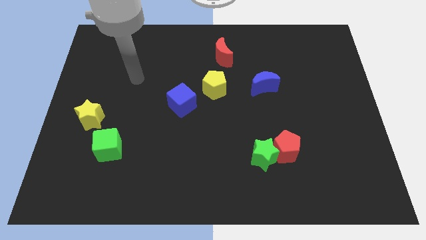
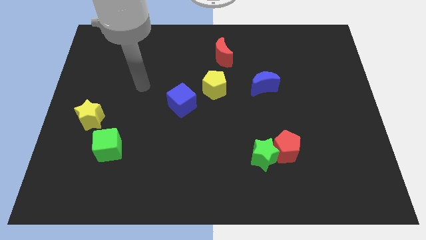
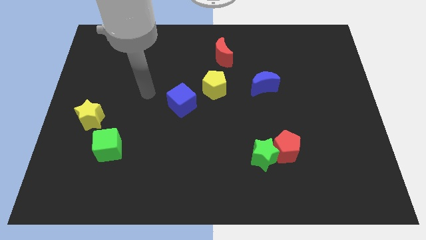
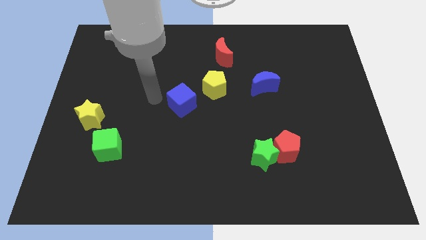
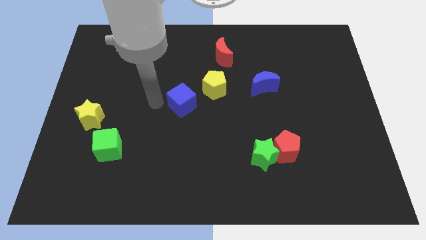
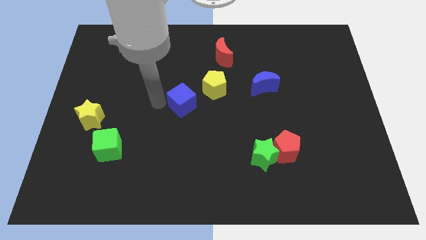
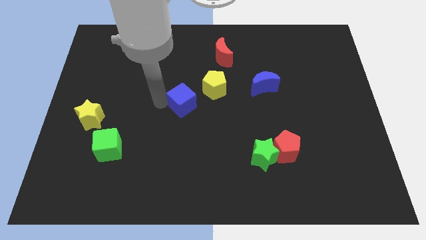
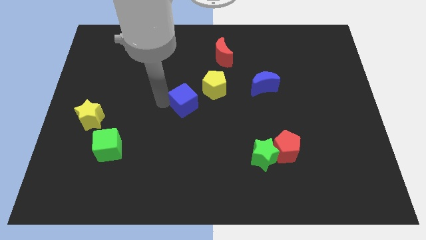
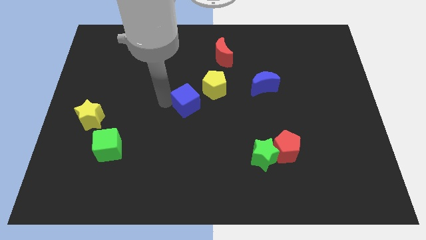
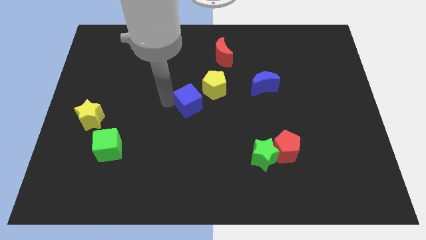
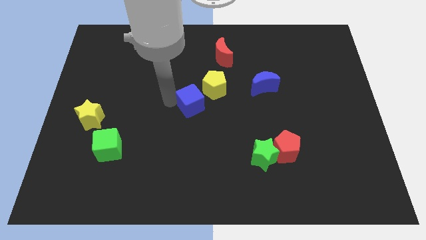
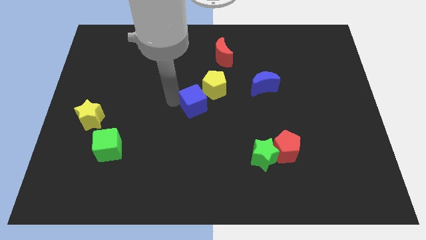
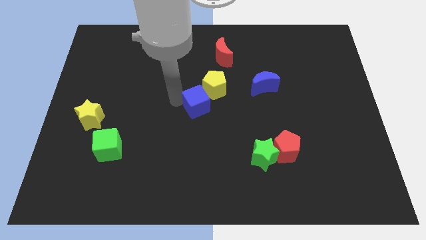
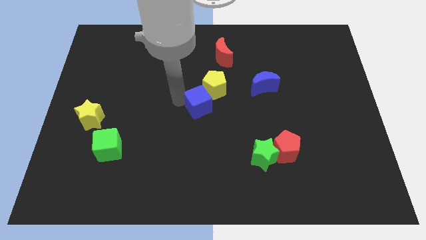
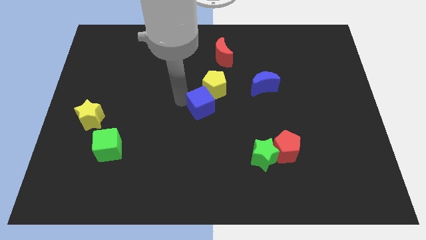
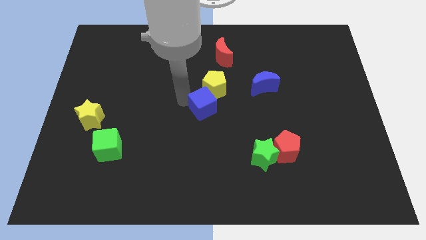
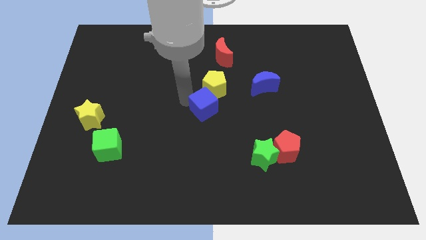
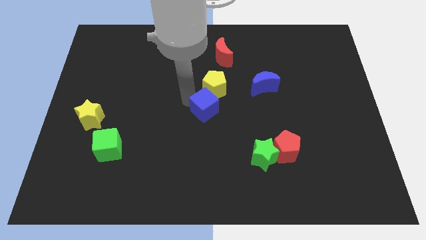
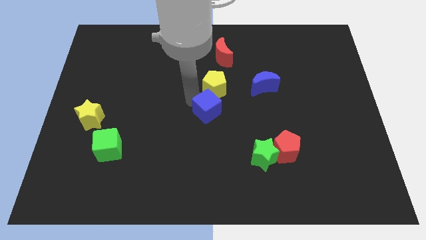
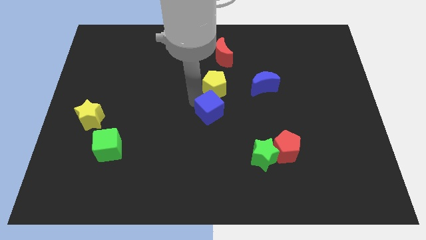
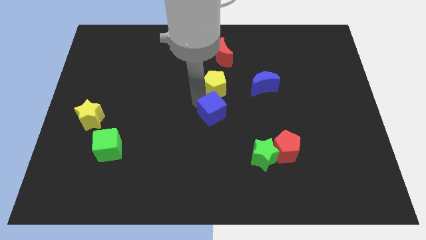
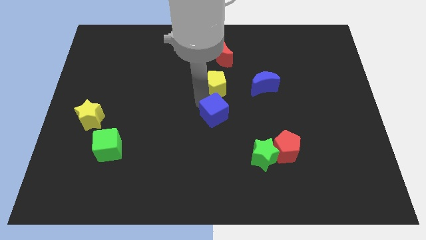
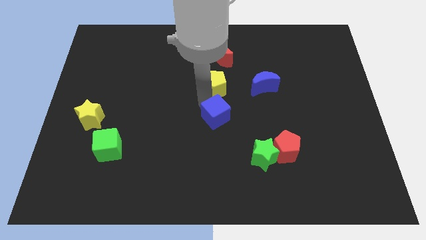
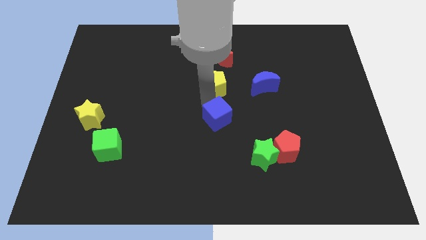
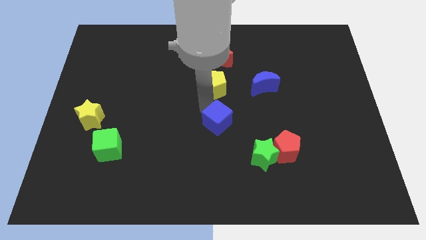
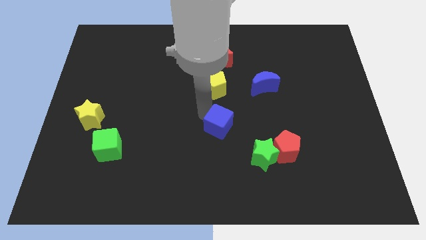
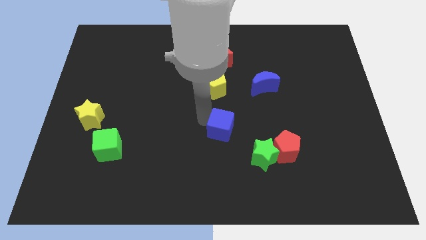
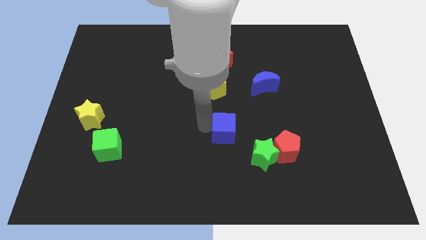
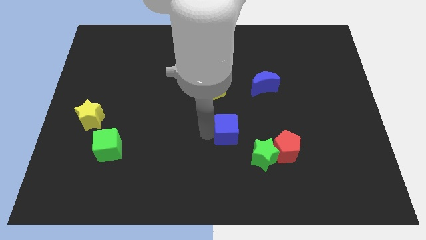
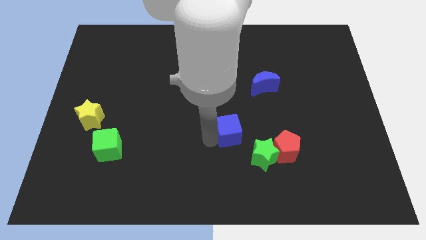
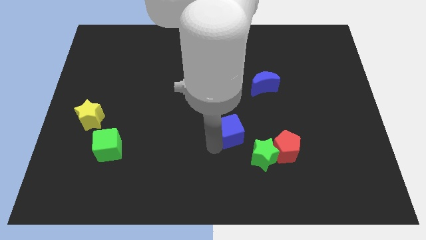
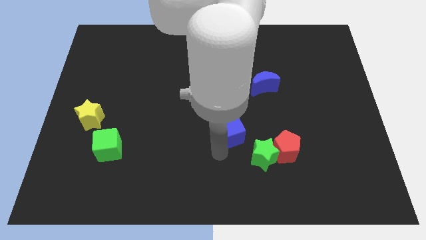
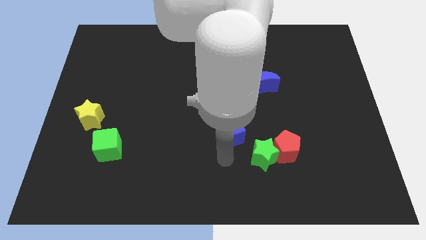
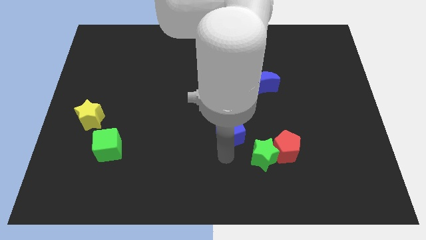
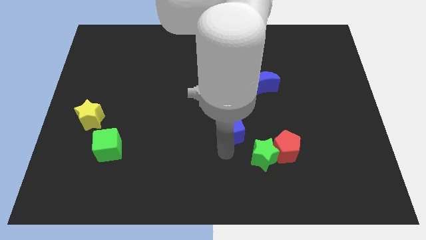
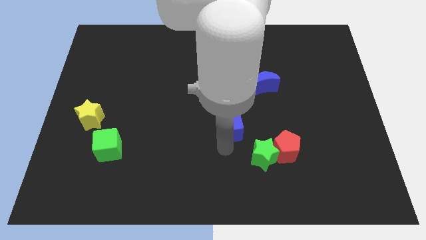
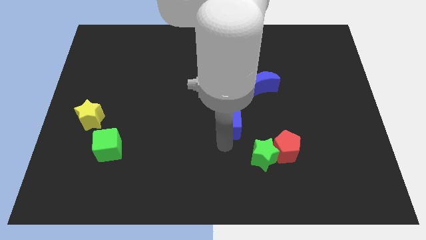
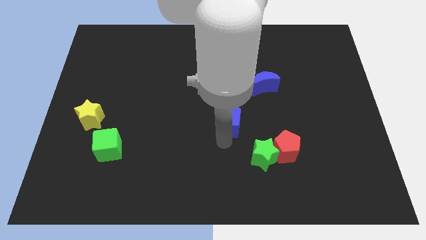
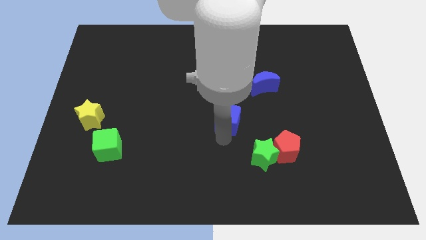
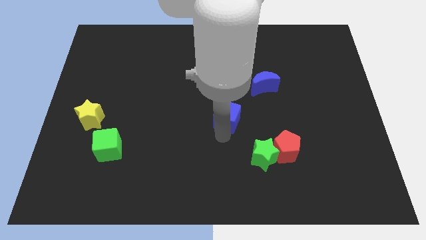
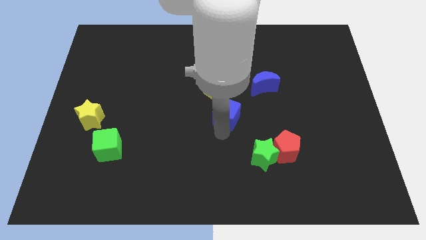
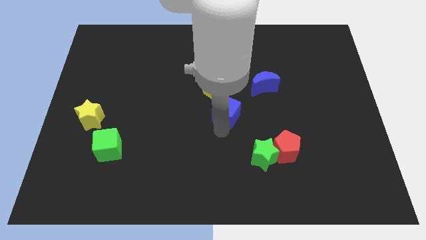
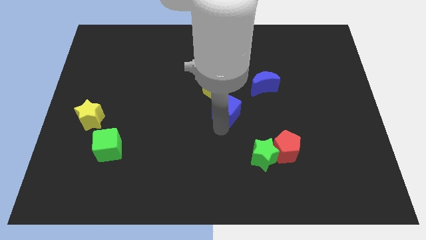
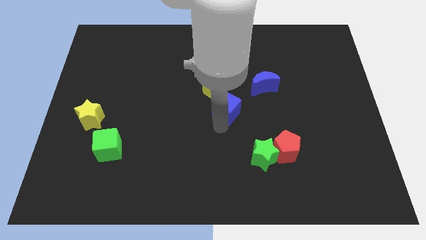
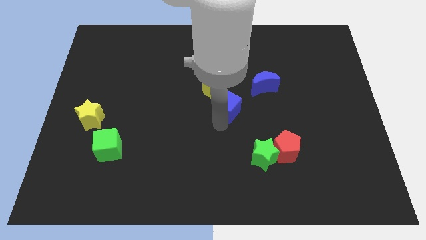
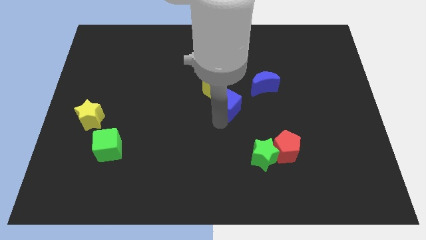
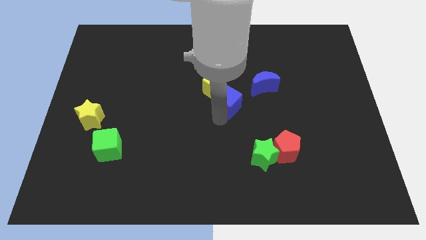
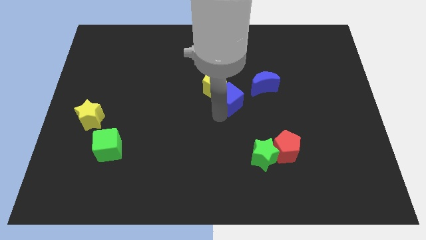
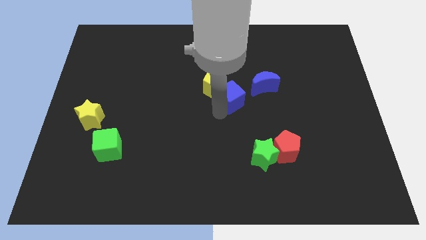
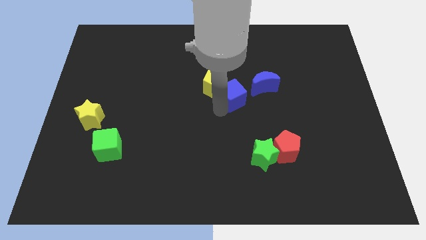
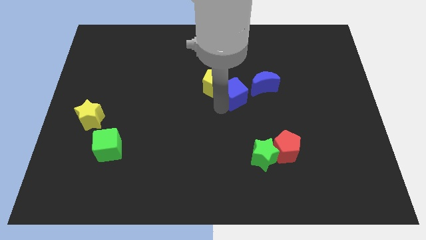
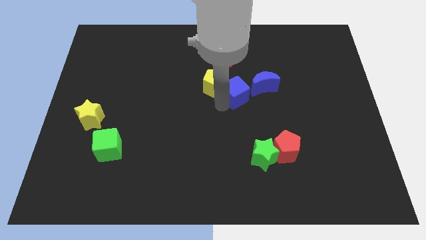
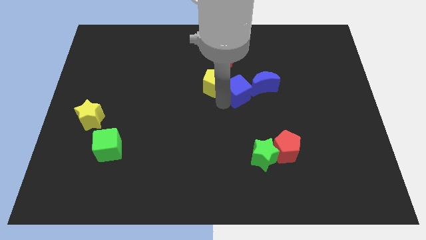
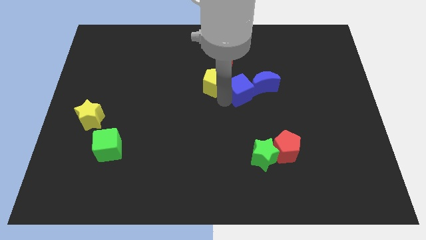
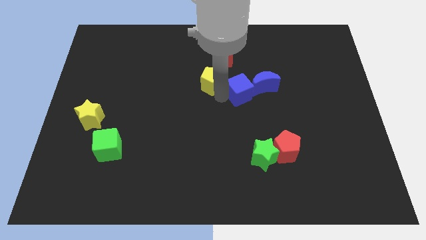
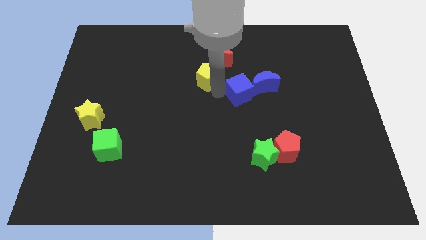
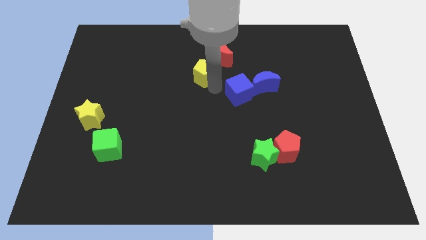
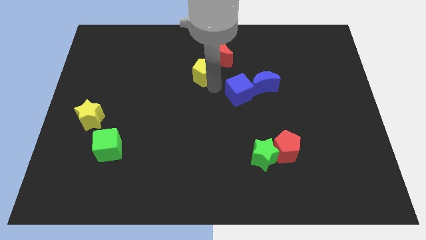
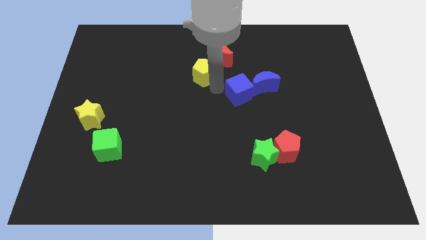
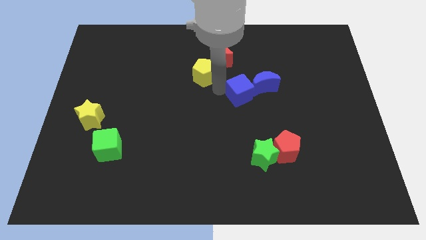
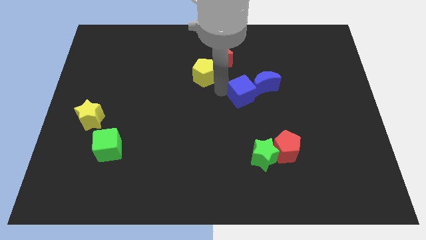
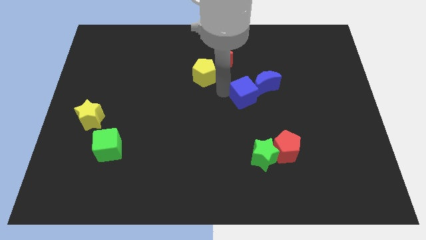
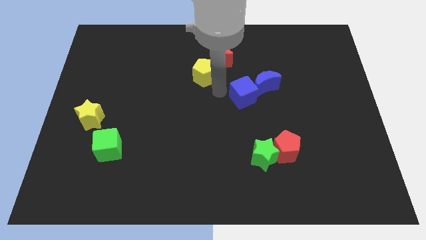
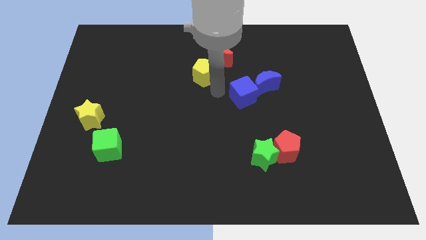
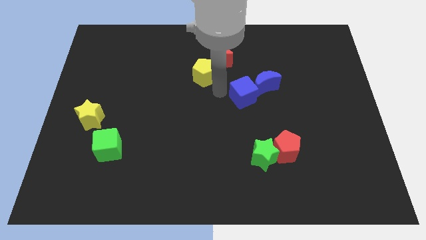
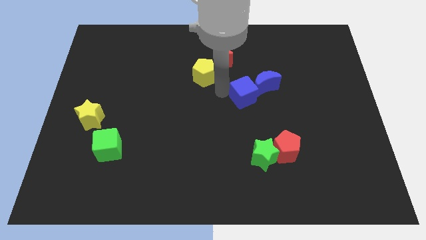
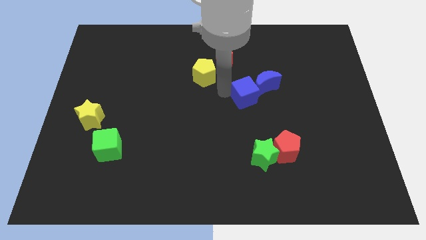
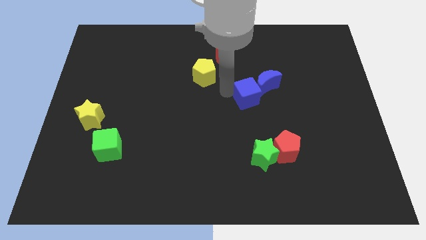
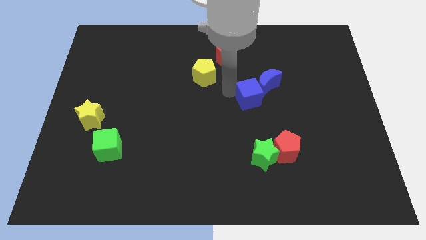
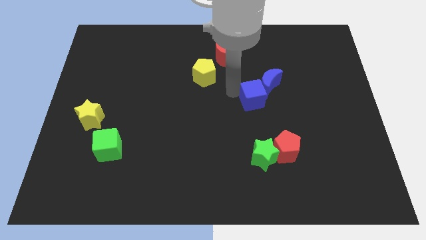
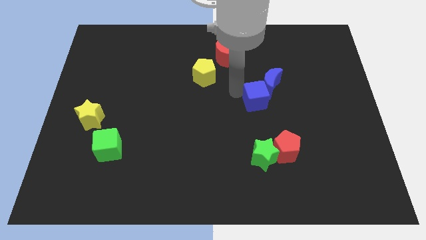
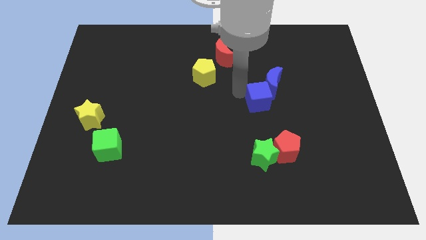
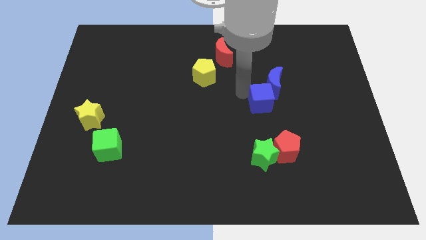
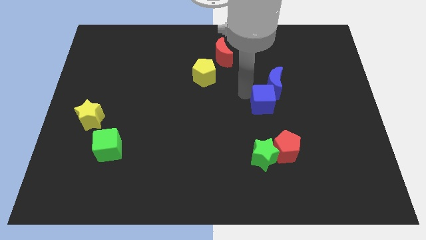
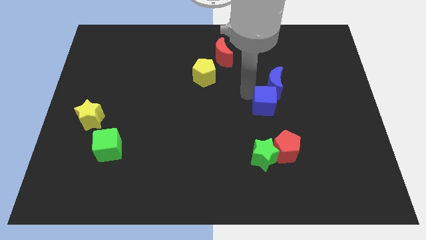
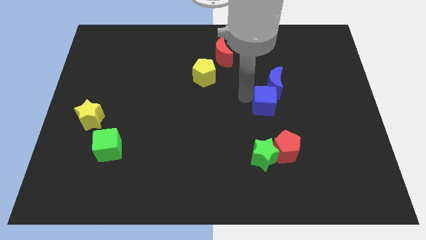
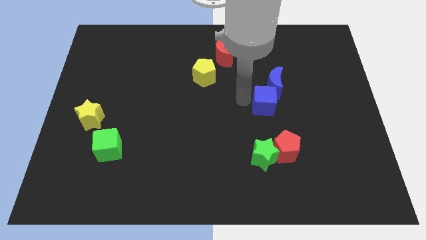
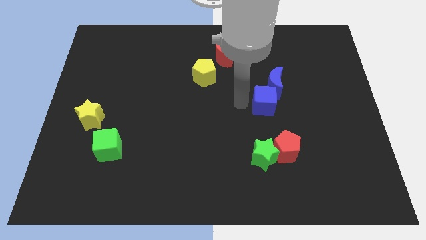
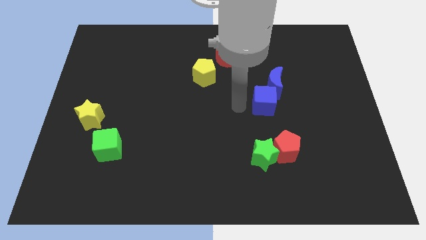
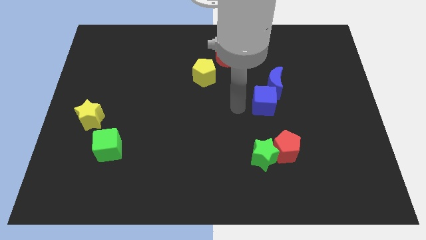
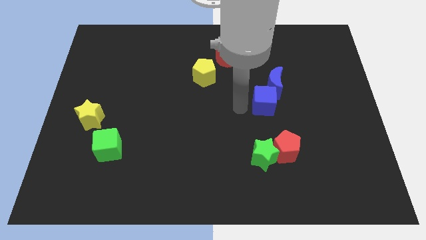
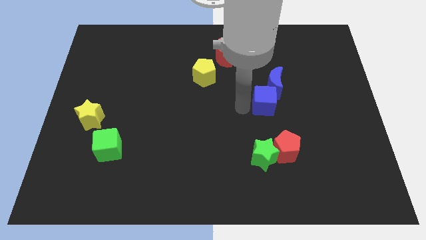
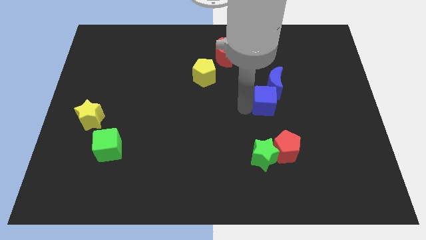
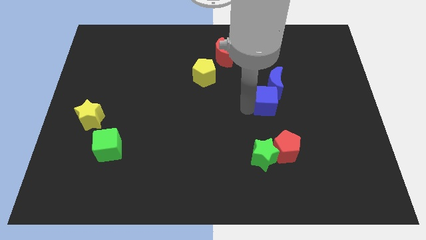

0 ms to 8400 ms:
move the blue cube to the right

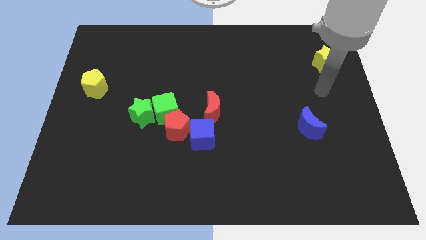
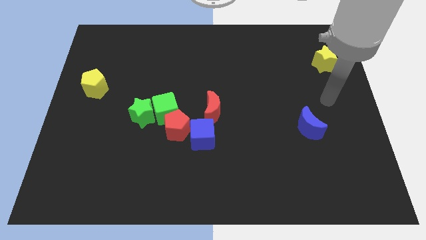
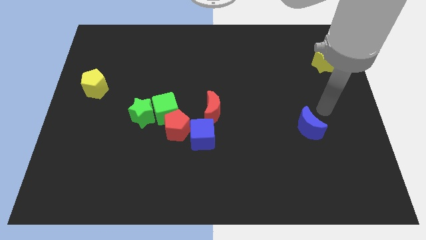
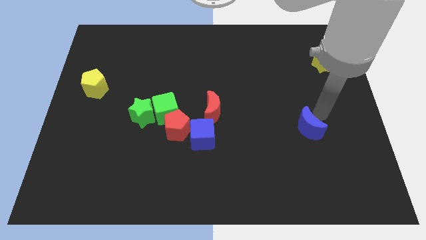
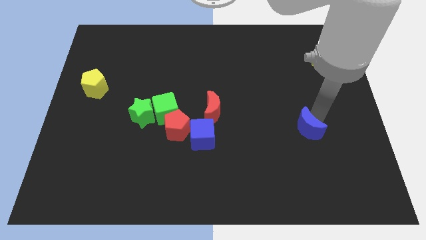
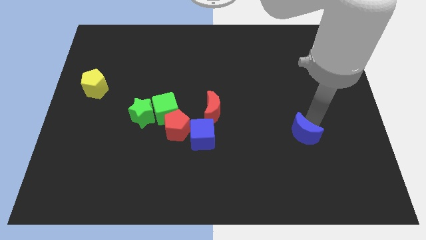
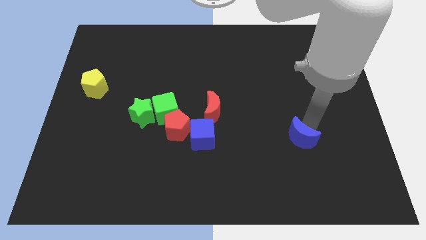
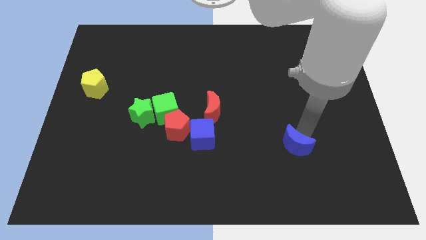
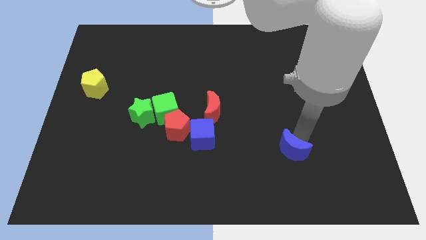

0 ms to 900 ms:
slightly push the blue moon down and left
